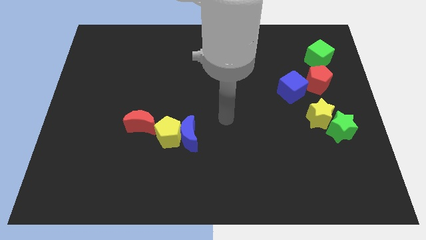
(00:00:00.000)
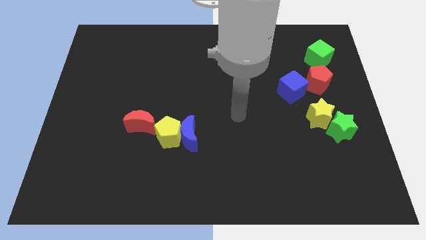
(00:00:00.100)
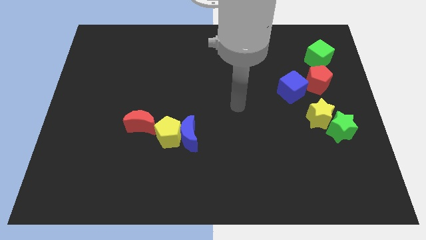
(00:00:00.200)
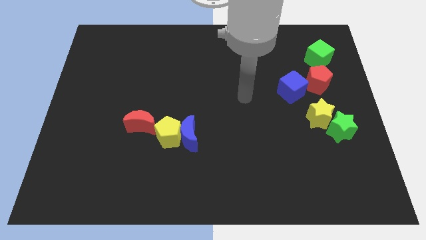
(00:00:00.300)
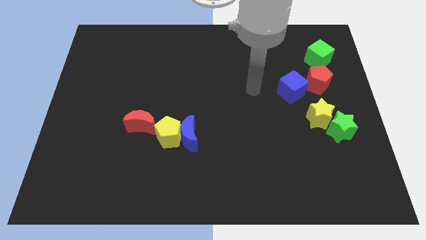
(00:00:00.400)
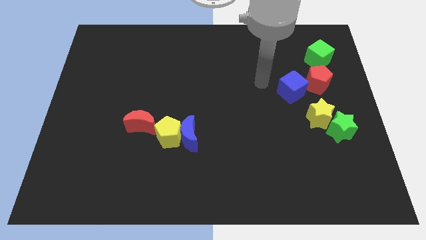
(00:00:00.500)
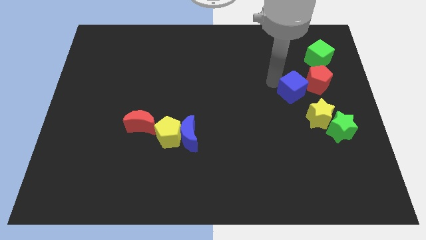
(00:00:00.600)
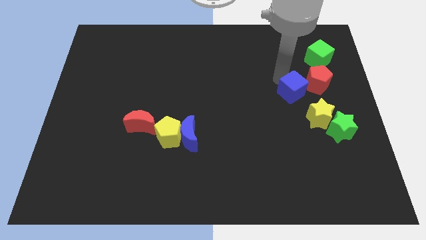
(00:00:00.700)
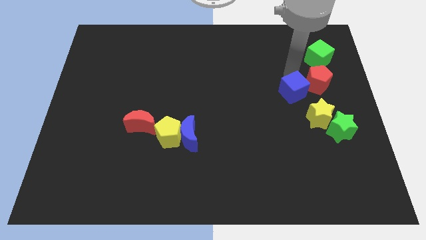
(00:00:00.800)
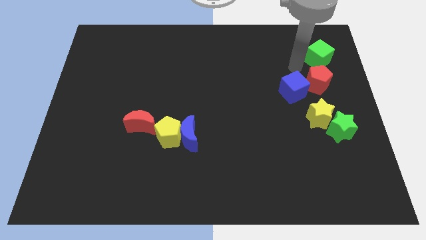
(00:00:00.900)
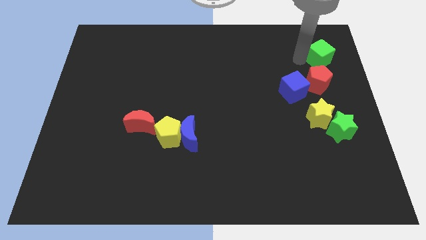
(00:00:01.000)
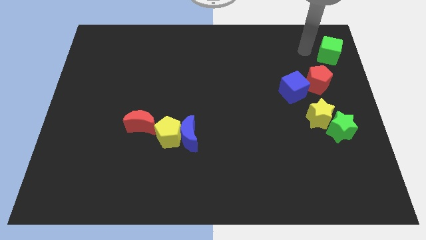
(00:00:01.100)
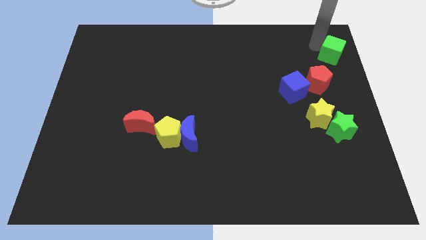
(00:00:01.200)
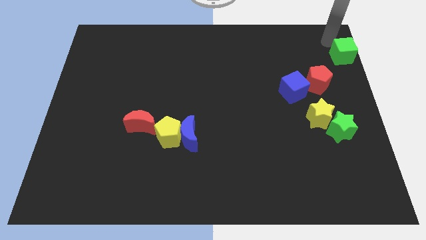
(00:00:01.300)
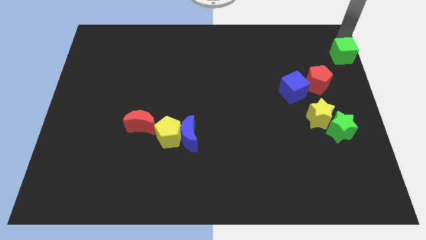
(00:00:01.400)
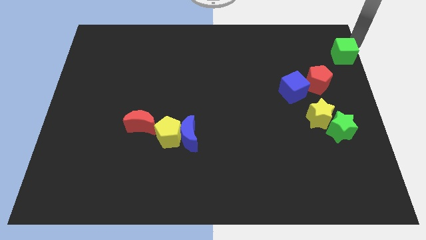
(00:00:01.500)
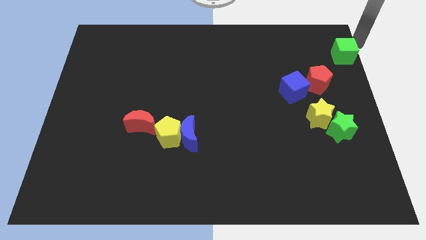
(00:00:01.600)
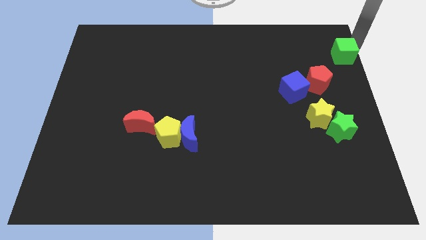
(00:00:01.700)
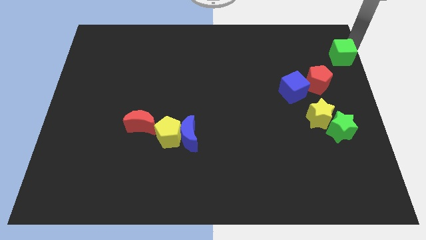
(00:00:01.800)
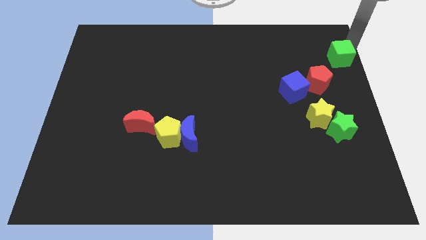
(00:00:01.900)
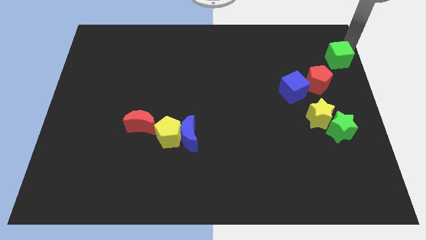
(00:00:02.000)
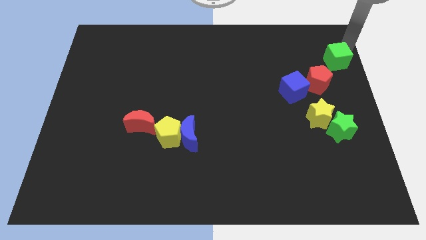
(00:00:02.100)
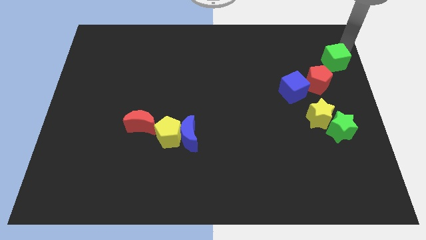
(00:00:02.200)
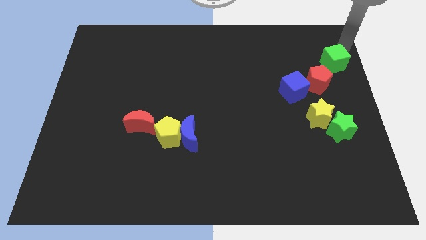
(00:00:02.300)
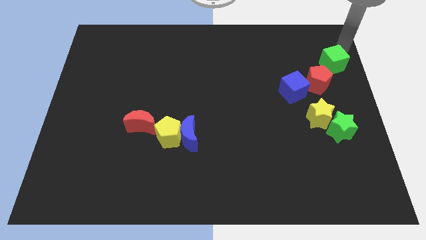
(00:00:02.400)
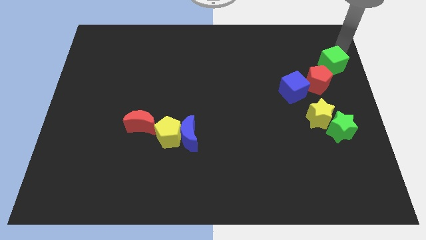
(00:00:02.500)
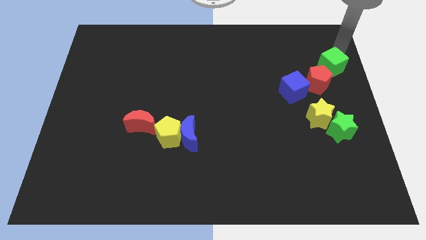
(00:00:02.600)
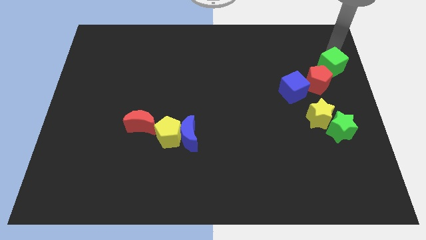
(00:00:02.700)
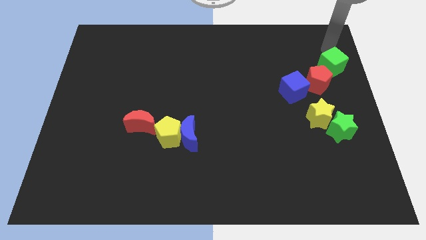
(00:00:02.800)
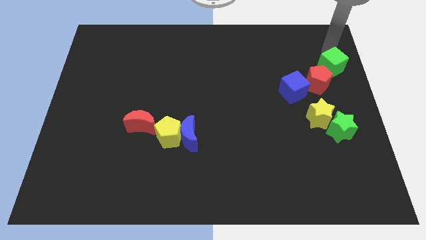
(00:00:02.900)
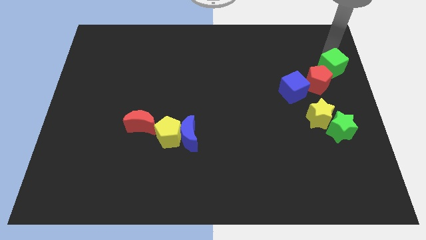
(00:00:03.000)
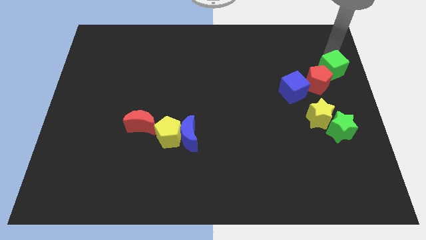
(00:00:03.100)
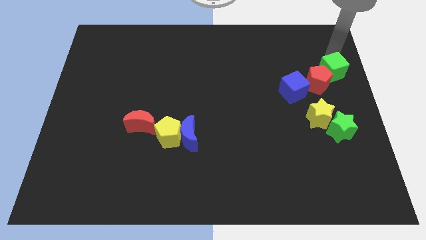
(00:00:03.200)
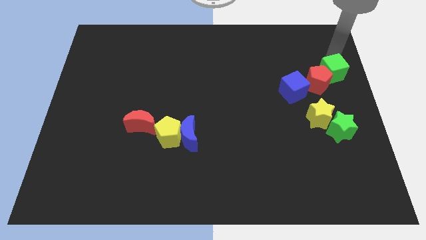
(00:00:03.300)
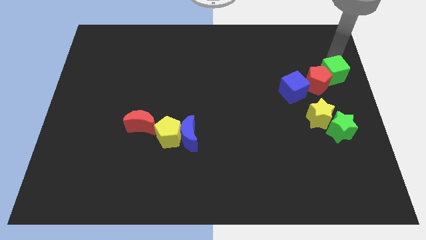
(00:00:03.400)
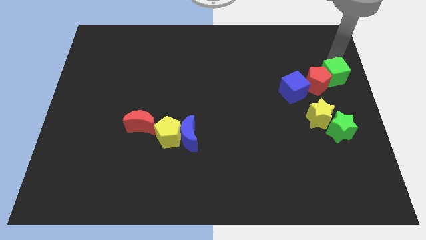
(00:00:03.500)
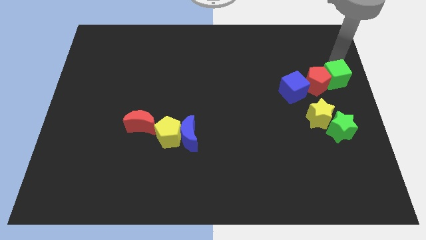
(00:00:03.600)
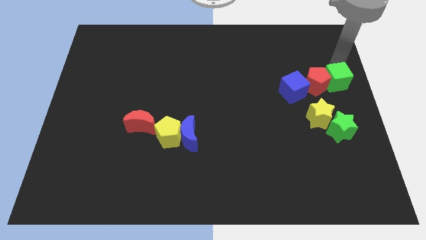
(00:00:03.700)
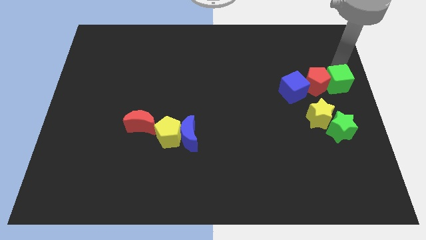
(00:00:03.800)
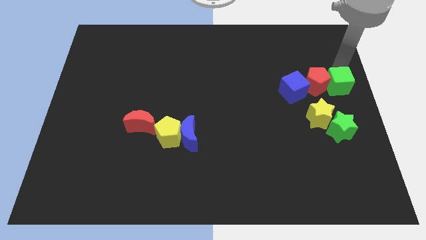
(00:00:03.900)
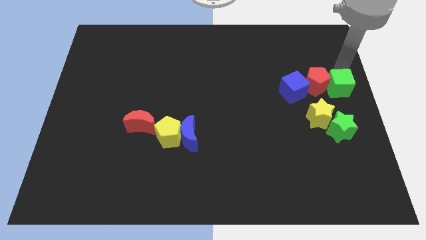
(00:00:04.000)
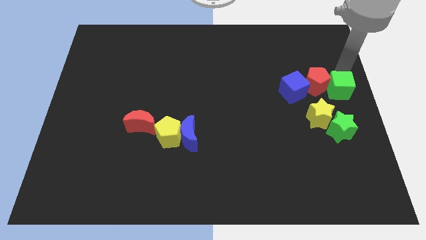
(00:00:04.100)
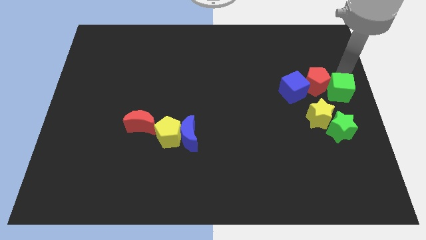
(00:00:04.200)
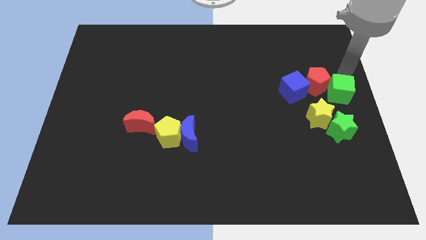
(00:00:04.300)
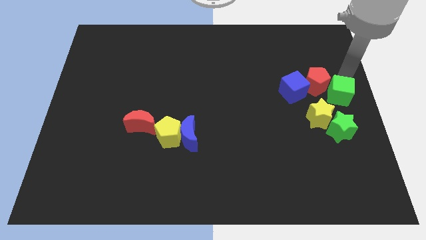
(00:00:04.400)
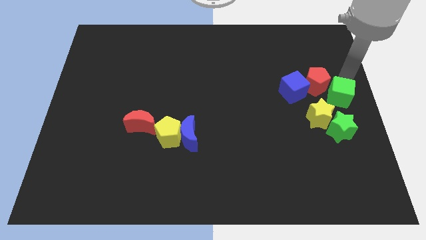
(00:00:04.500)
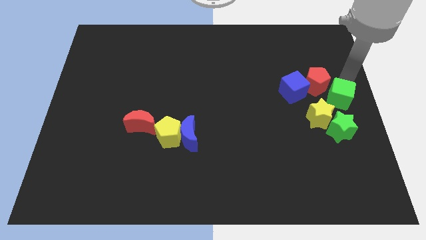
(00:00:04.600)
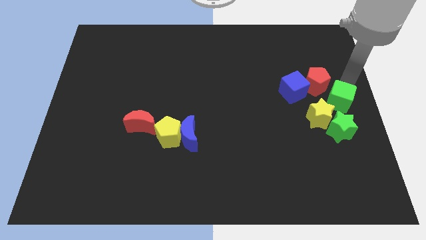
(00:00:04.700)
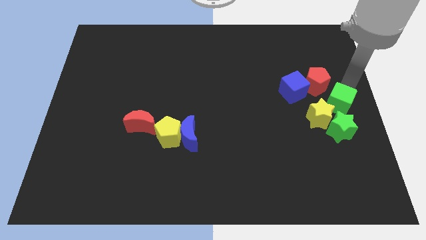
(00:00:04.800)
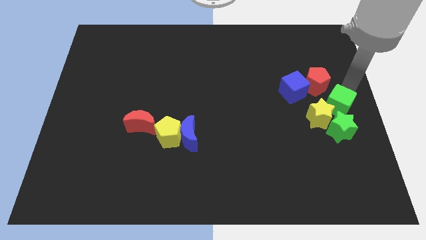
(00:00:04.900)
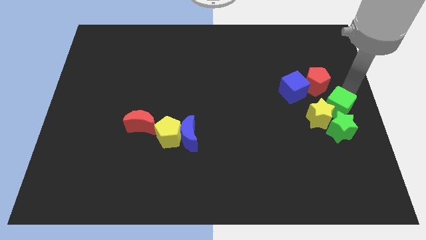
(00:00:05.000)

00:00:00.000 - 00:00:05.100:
put the green cube to the yellow star

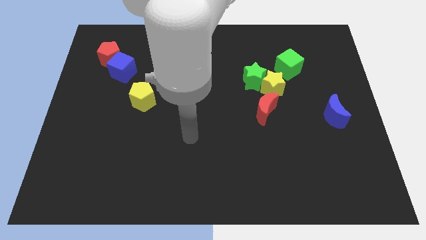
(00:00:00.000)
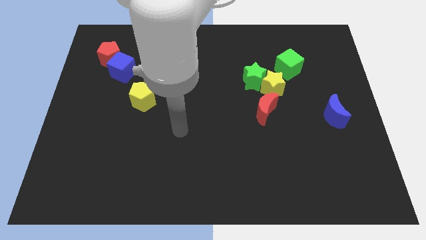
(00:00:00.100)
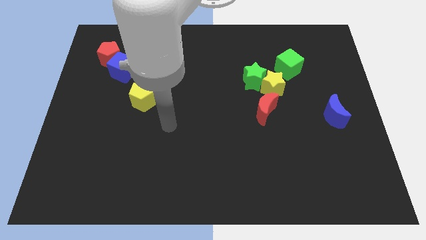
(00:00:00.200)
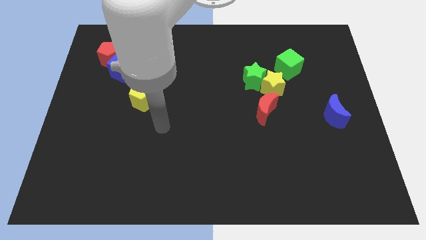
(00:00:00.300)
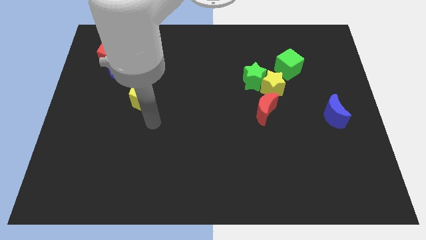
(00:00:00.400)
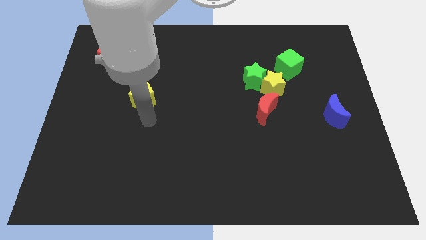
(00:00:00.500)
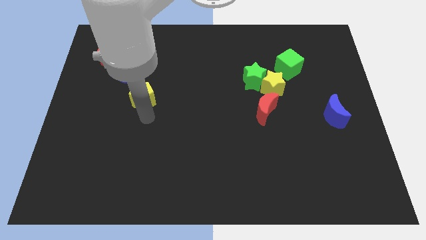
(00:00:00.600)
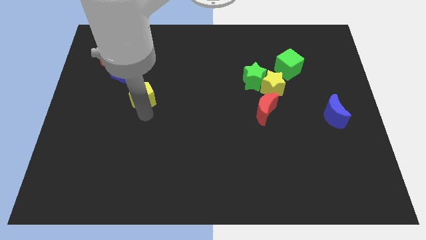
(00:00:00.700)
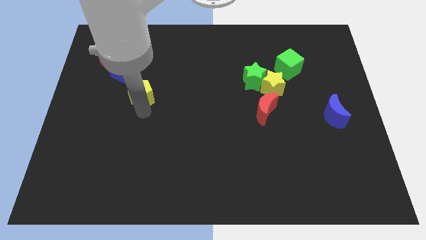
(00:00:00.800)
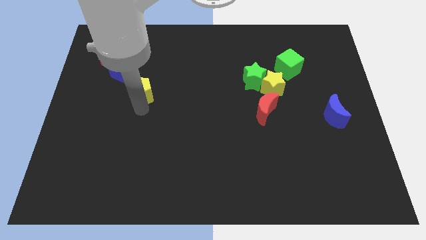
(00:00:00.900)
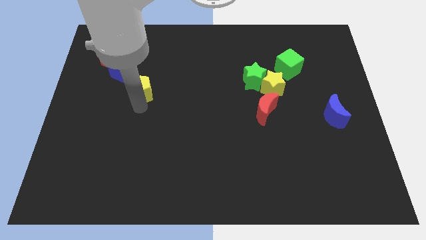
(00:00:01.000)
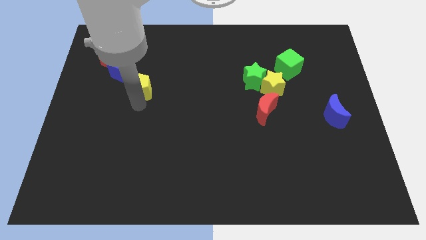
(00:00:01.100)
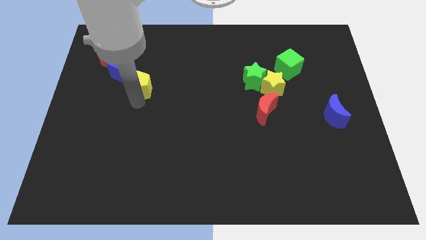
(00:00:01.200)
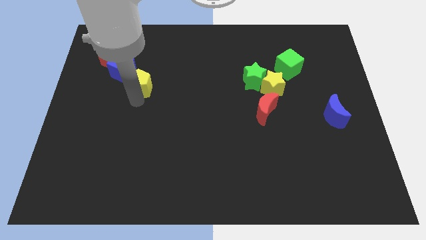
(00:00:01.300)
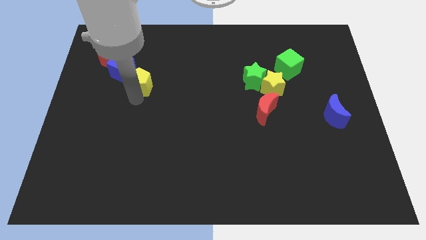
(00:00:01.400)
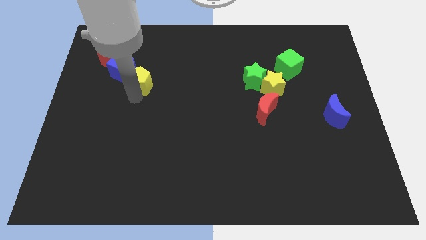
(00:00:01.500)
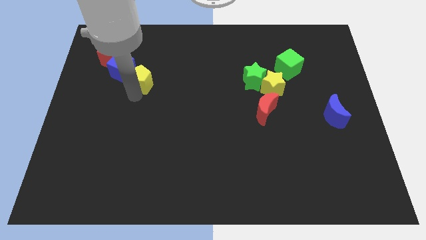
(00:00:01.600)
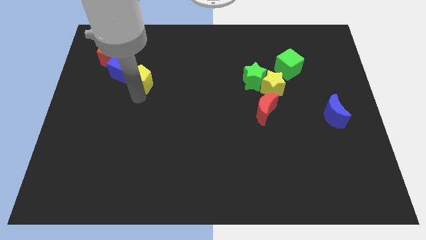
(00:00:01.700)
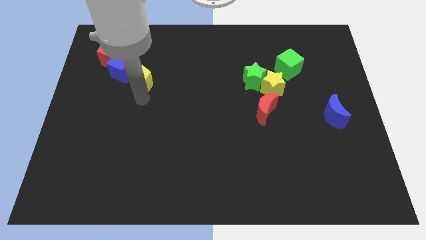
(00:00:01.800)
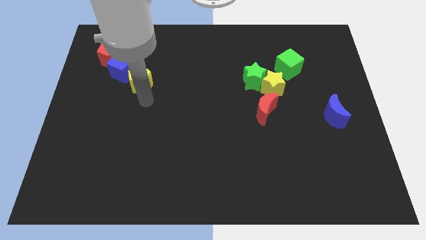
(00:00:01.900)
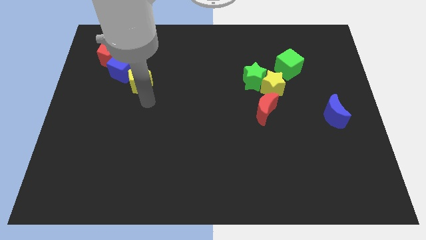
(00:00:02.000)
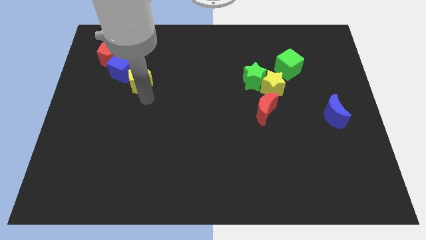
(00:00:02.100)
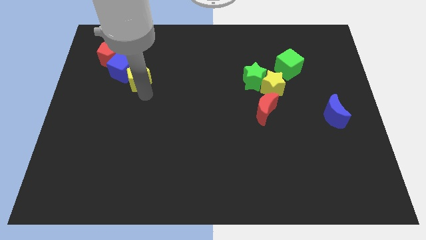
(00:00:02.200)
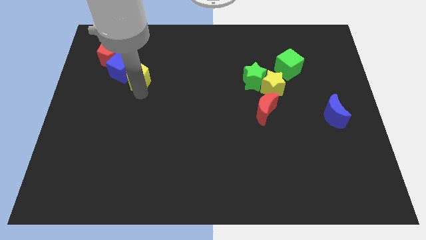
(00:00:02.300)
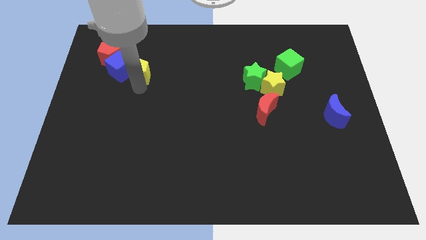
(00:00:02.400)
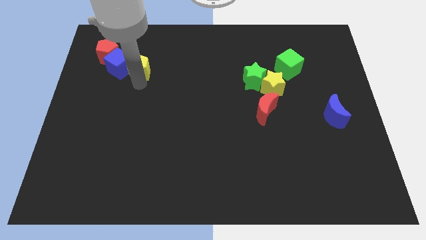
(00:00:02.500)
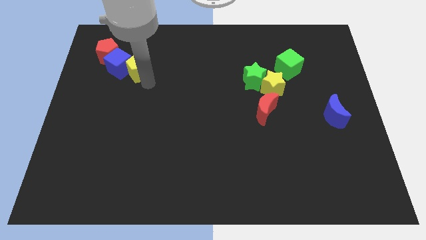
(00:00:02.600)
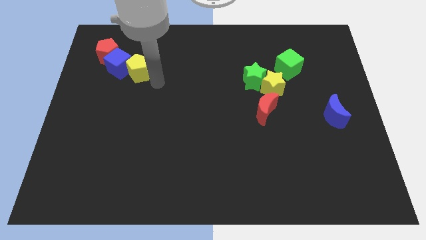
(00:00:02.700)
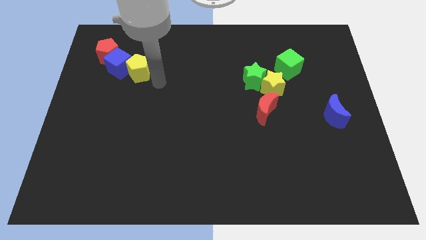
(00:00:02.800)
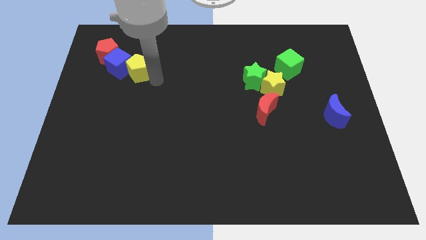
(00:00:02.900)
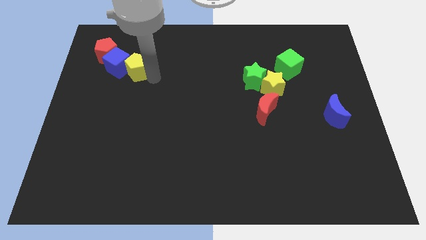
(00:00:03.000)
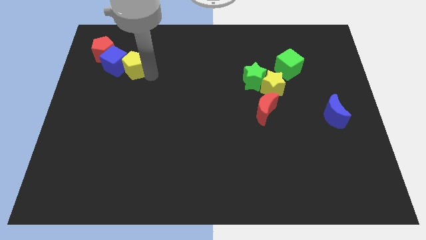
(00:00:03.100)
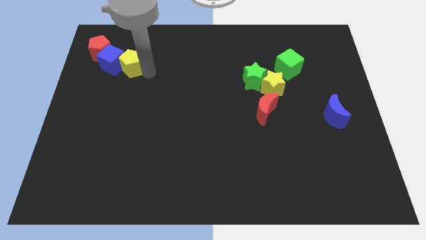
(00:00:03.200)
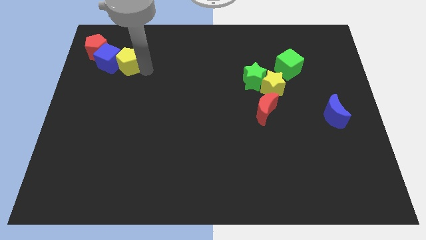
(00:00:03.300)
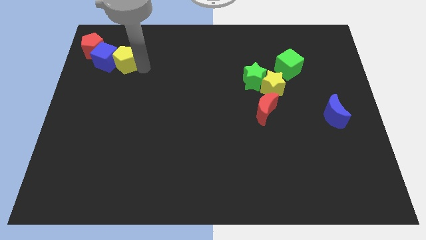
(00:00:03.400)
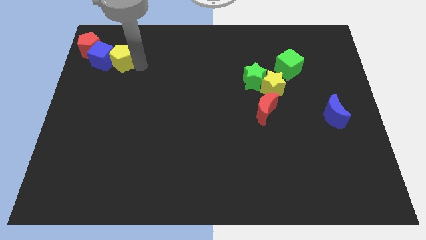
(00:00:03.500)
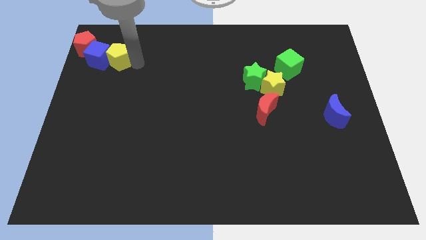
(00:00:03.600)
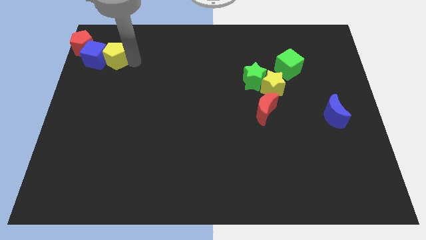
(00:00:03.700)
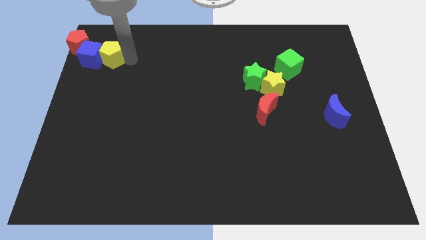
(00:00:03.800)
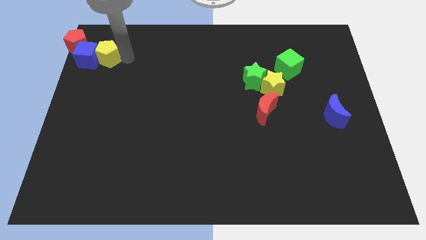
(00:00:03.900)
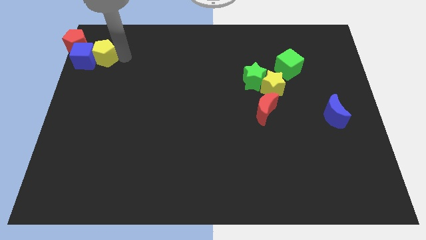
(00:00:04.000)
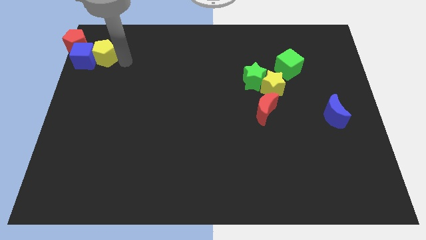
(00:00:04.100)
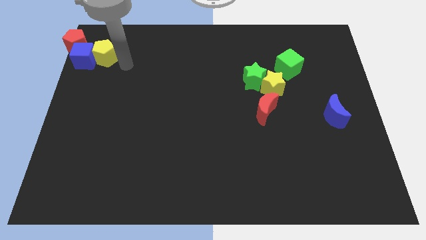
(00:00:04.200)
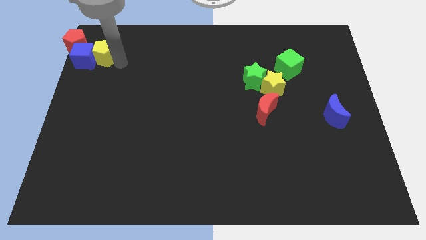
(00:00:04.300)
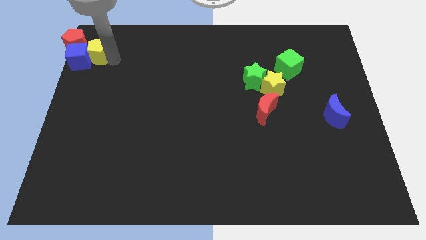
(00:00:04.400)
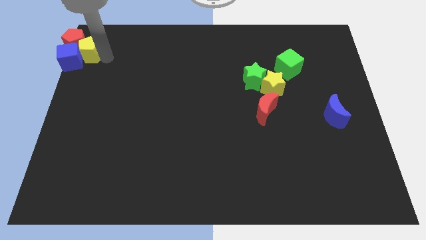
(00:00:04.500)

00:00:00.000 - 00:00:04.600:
put the yellow pentagon next to the red pentagon
